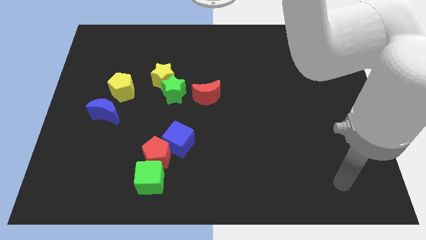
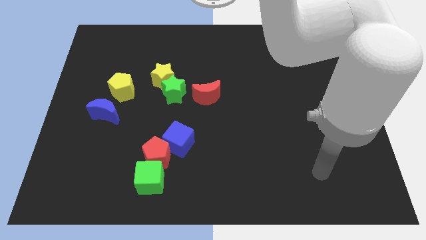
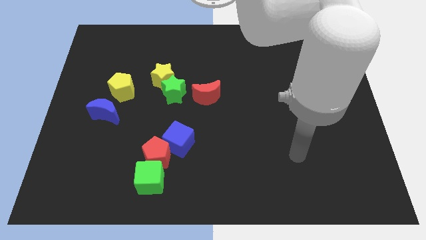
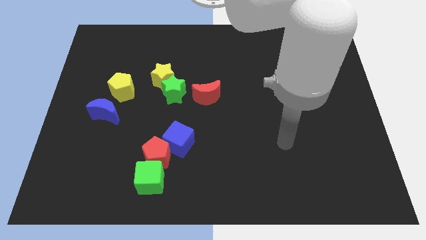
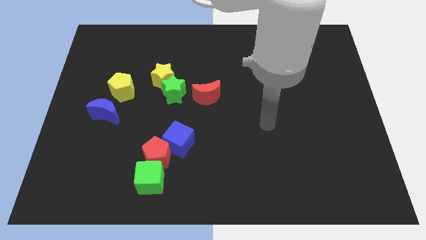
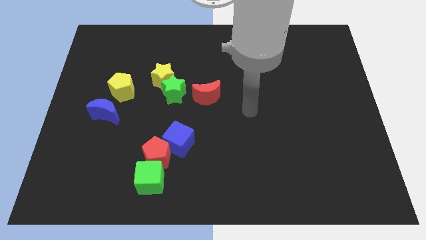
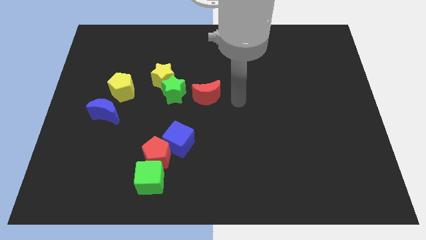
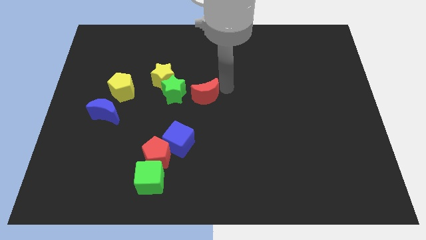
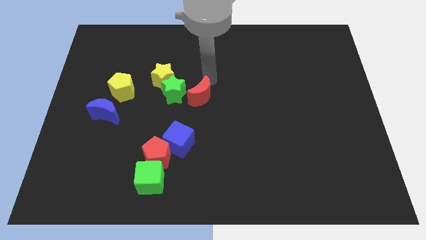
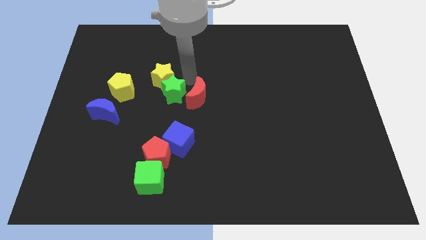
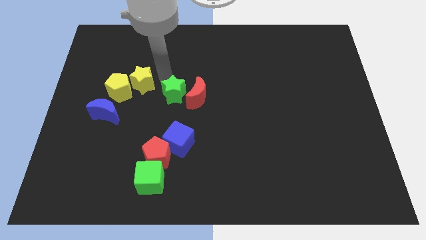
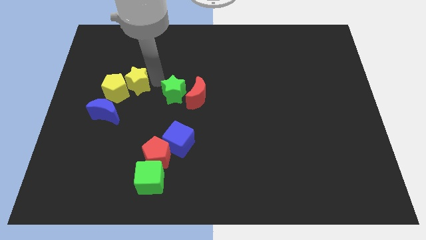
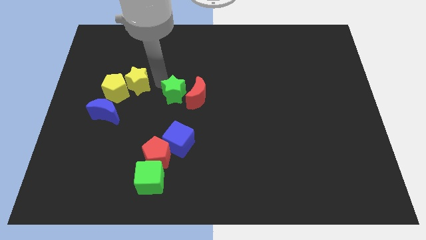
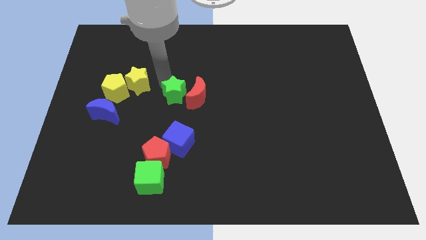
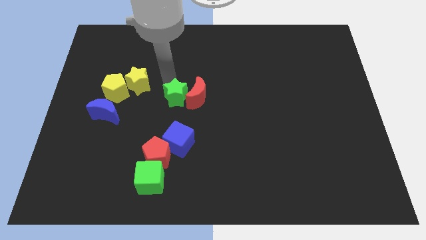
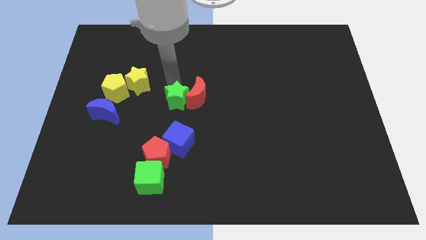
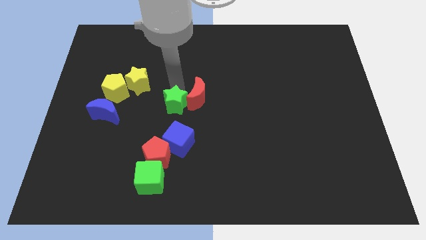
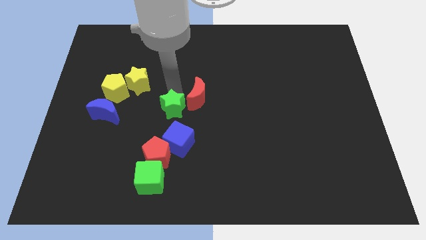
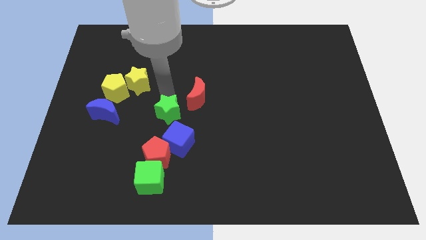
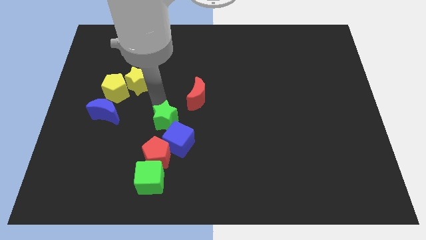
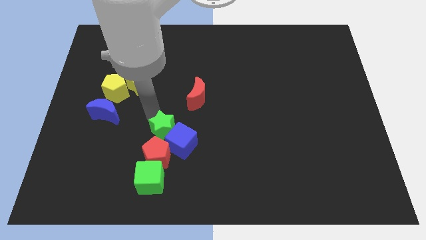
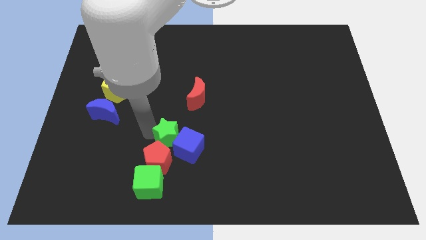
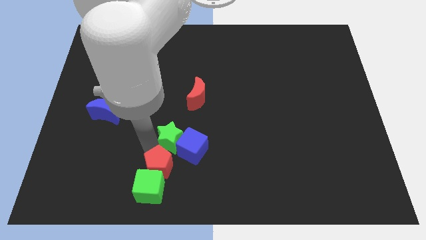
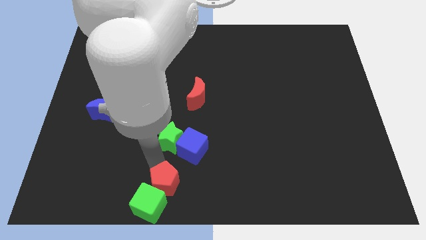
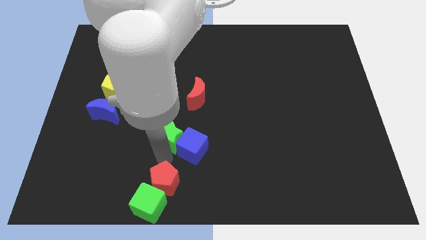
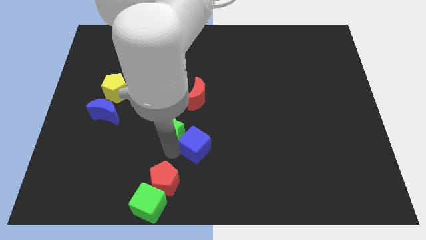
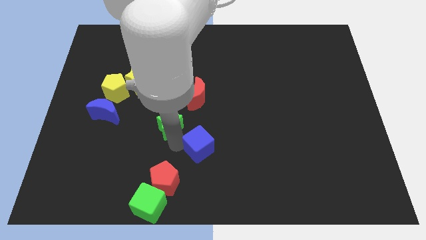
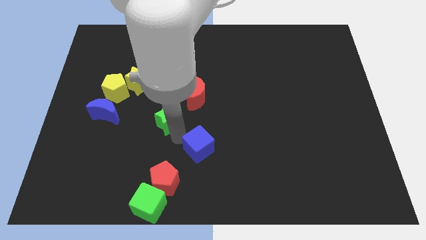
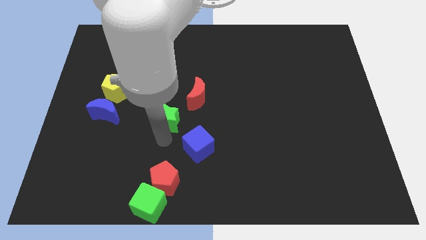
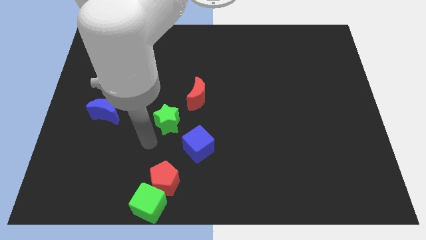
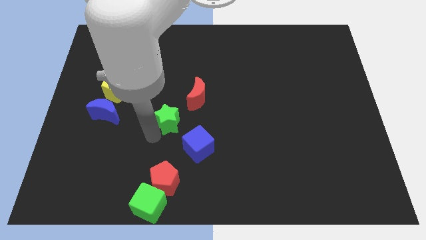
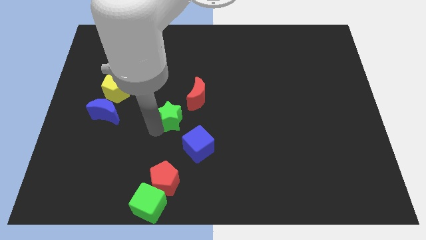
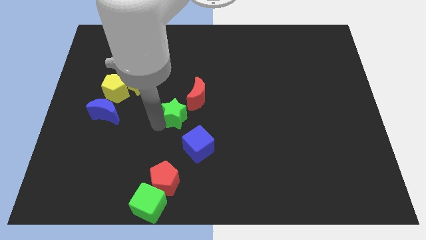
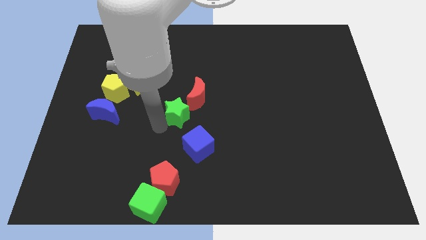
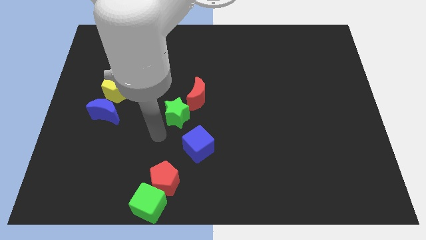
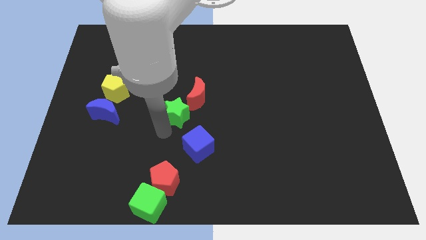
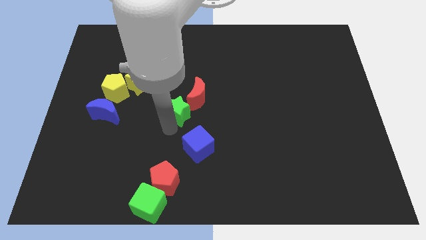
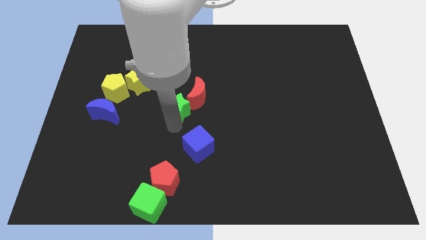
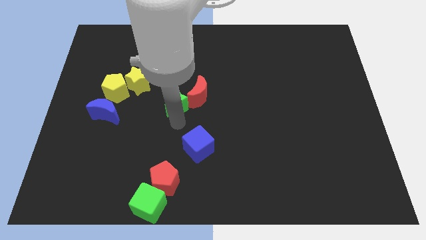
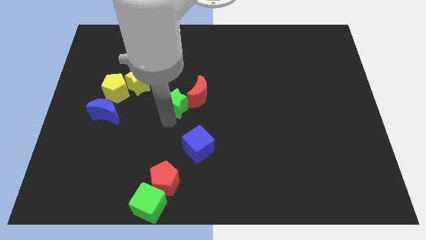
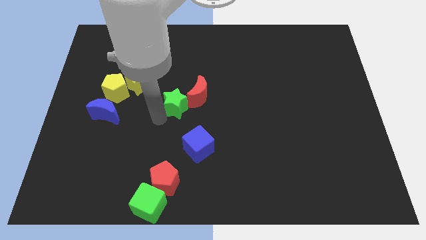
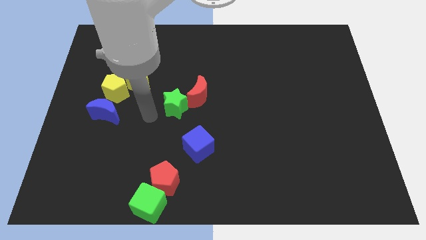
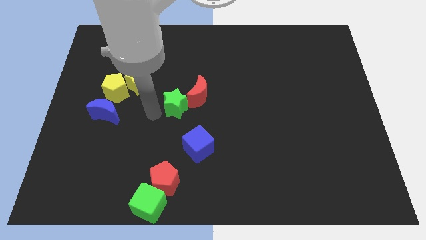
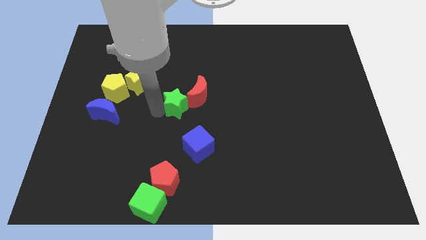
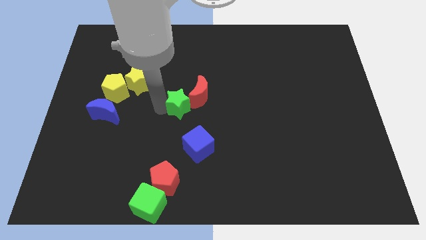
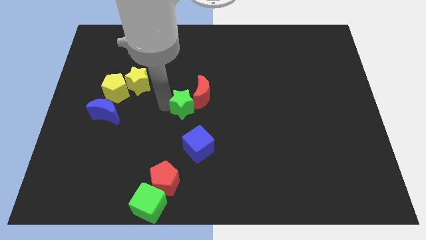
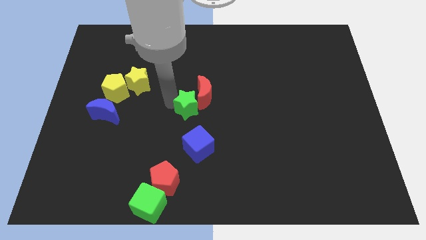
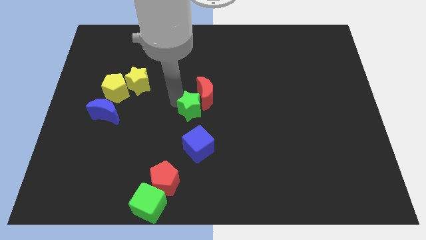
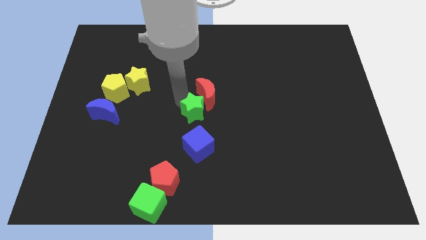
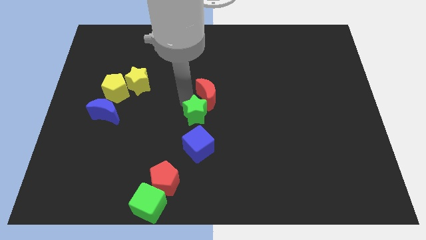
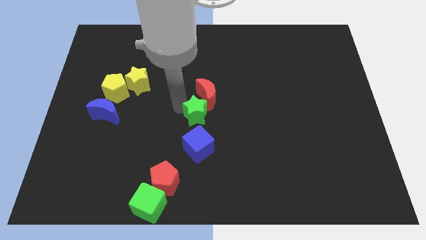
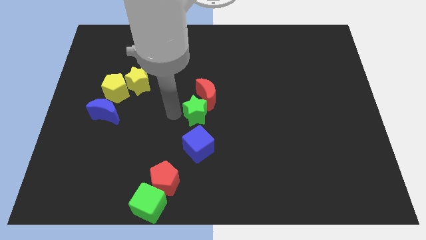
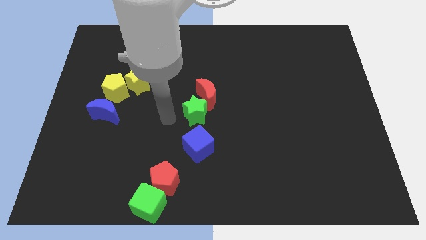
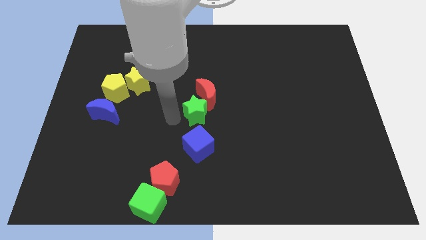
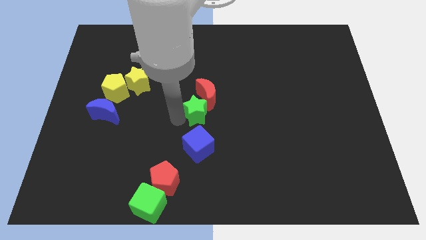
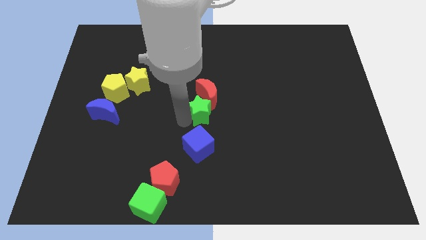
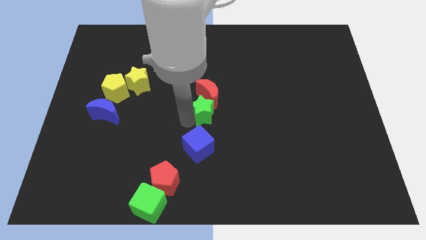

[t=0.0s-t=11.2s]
put the green star to the bottom right side of the red moon

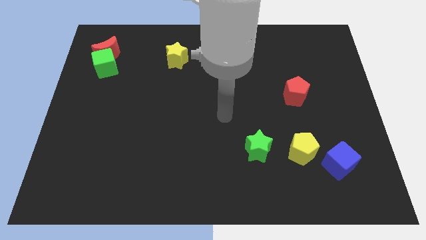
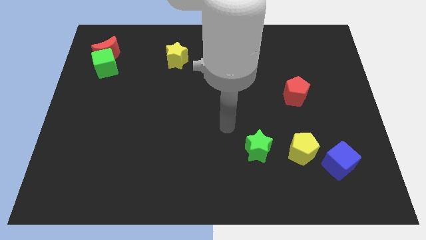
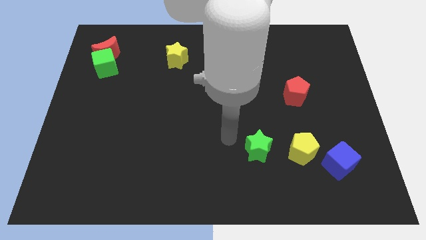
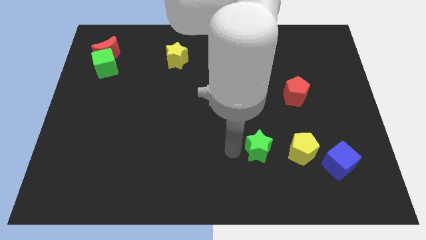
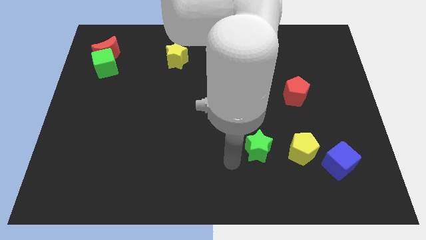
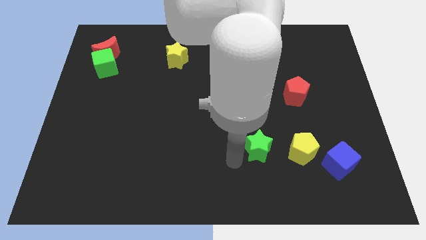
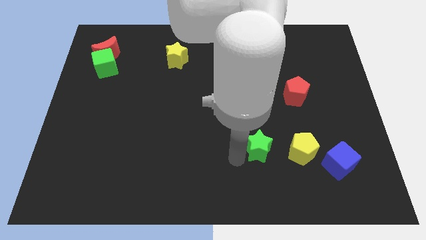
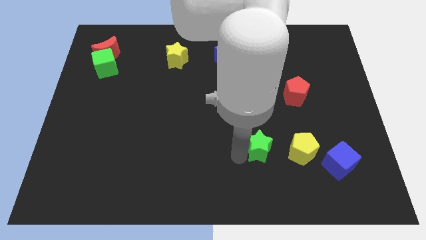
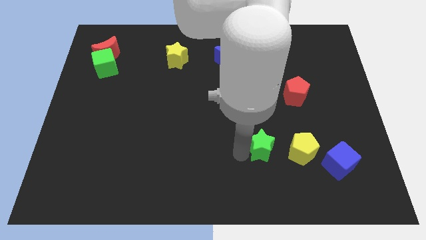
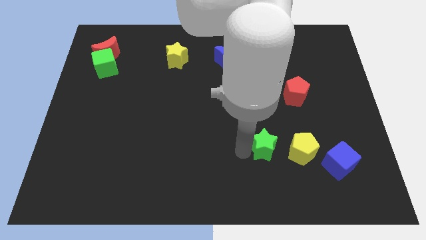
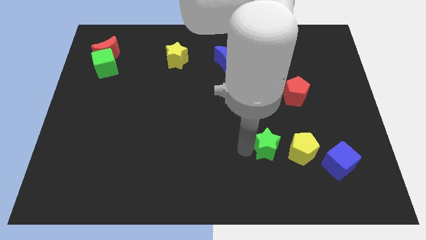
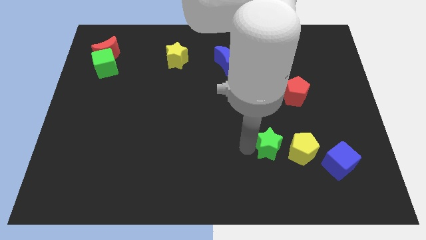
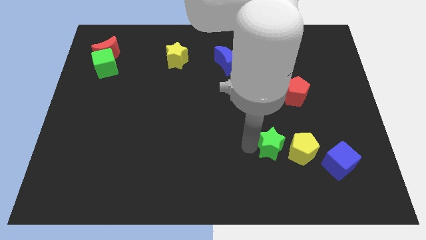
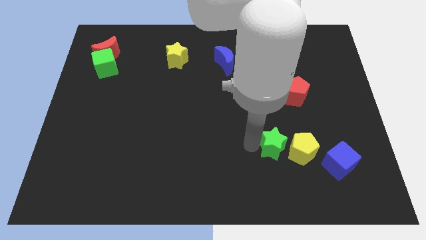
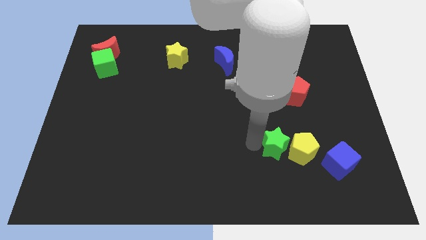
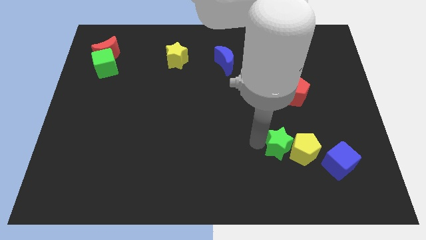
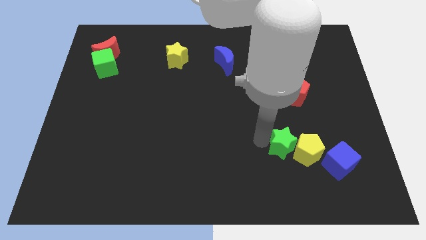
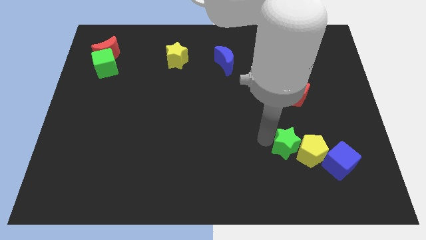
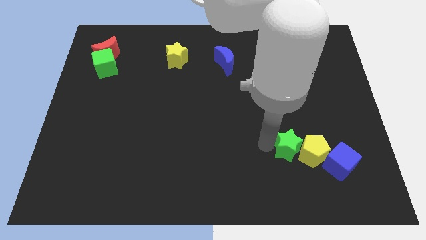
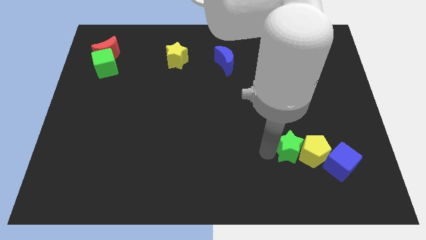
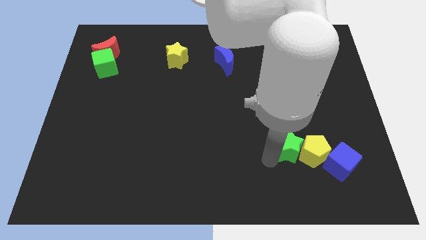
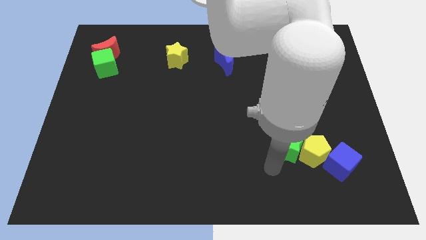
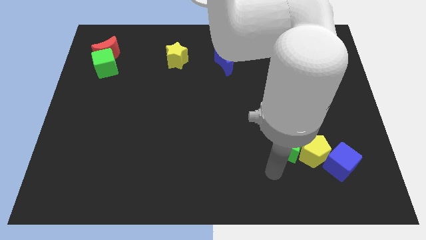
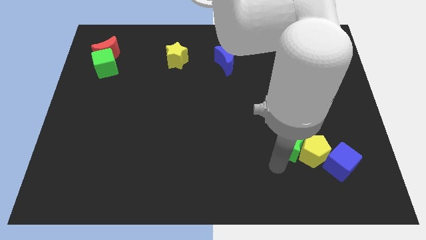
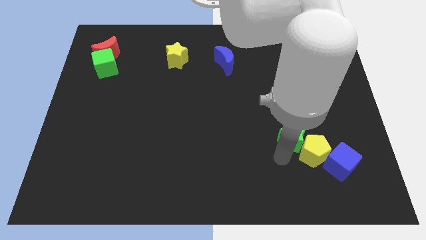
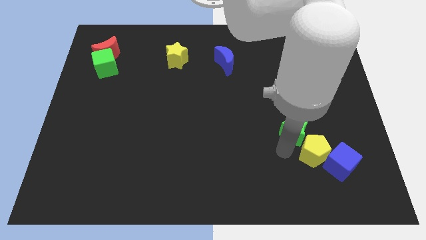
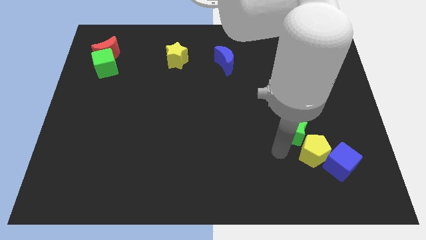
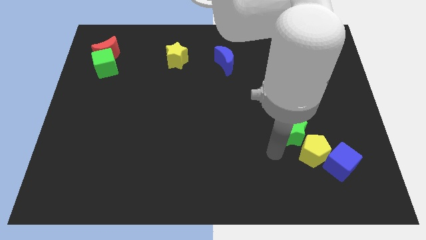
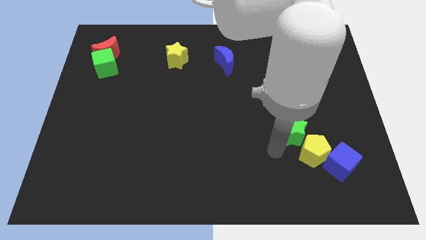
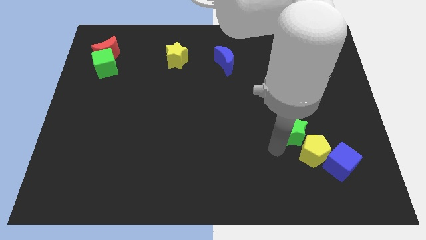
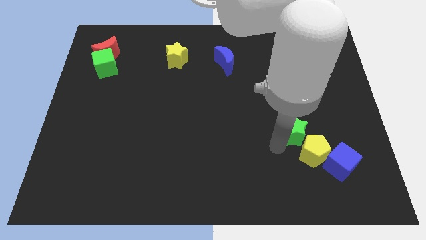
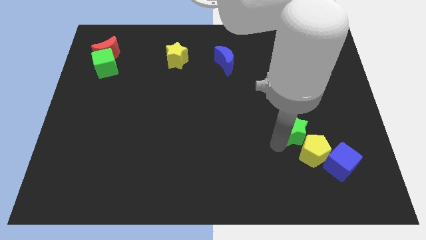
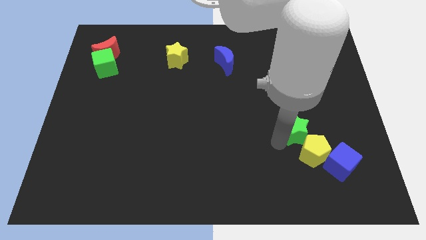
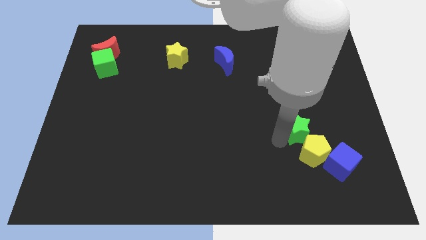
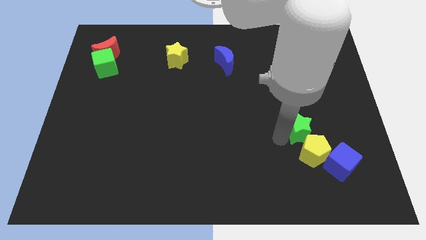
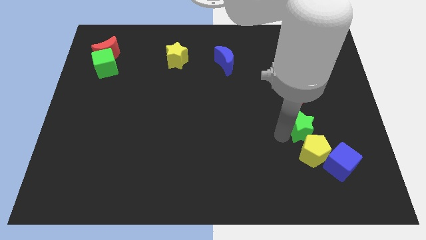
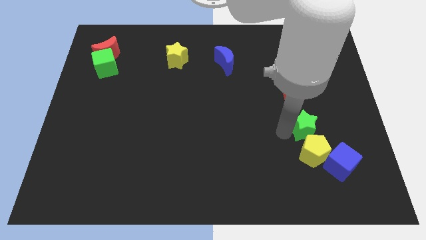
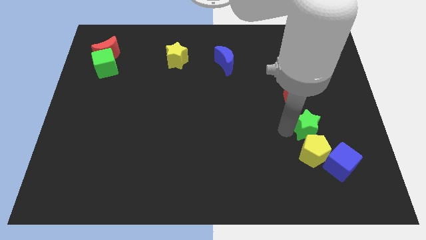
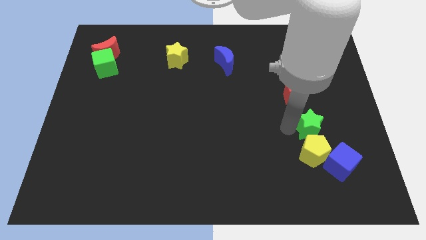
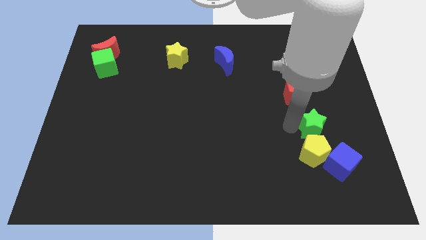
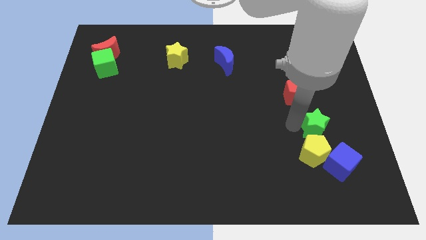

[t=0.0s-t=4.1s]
push the green star to the bottom right of the red pentagon
